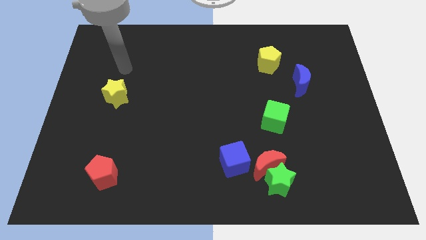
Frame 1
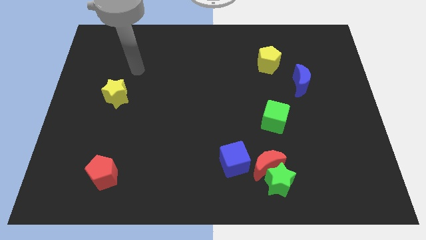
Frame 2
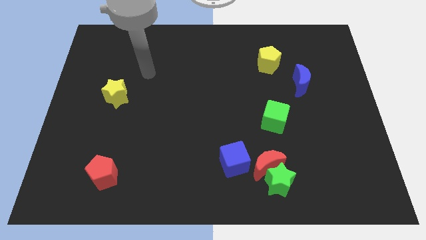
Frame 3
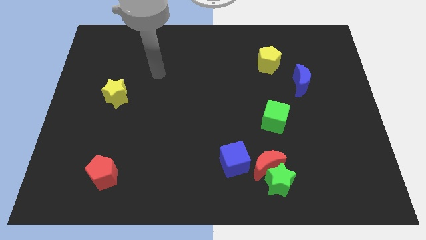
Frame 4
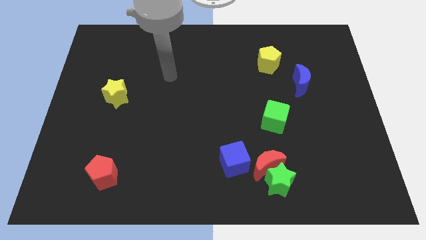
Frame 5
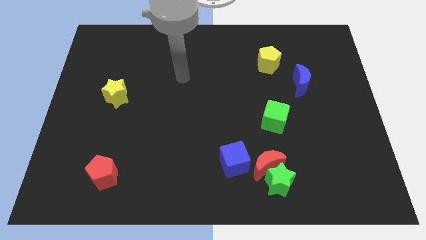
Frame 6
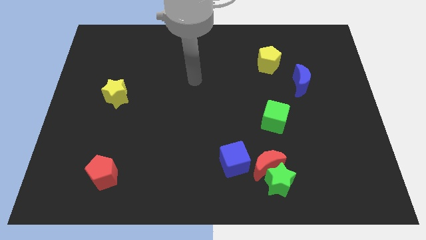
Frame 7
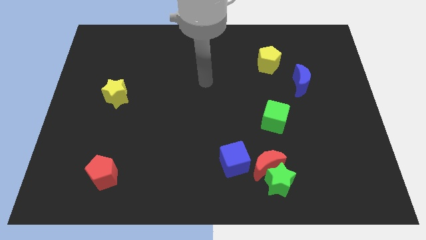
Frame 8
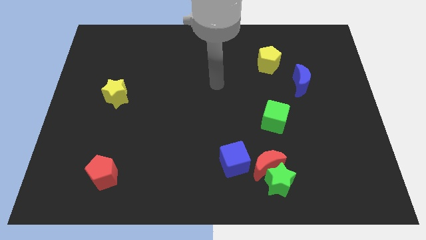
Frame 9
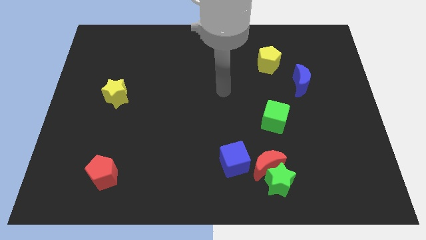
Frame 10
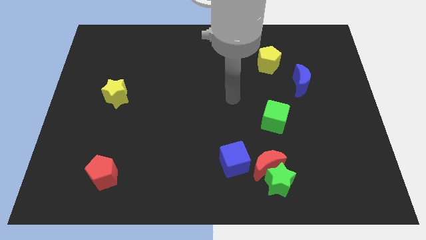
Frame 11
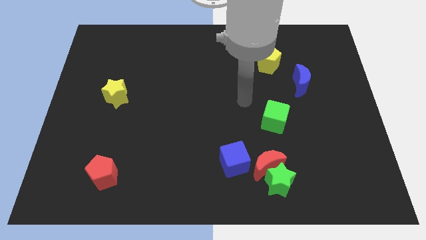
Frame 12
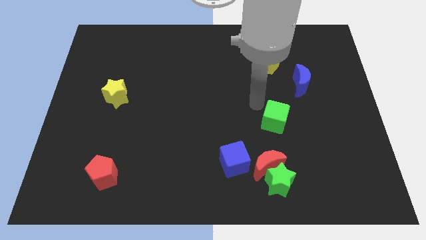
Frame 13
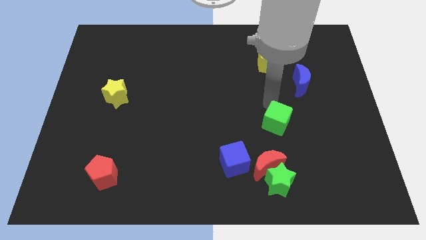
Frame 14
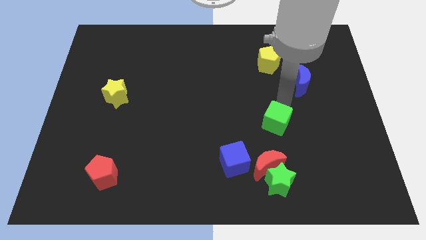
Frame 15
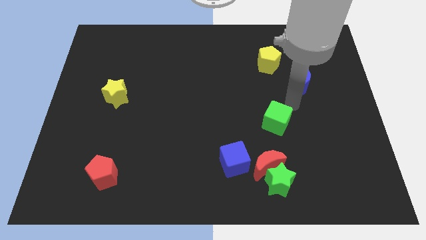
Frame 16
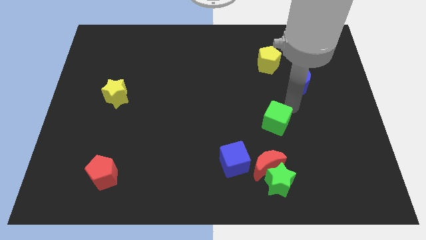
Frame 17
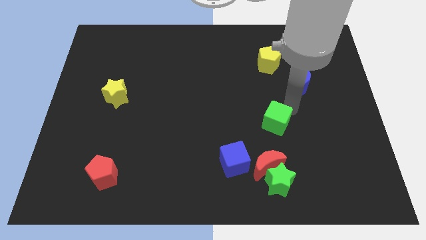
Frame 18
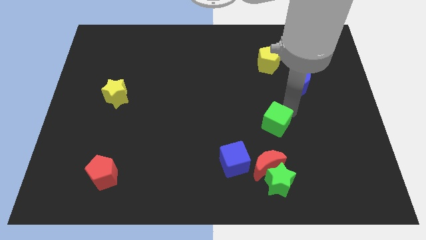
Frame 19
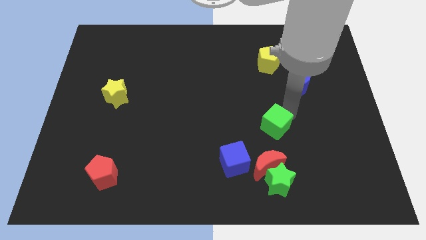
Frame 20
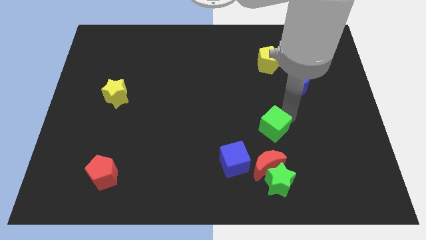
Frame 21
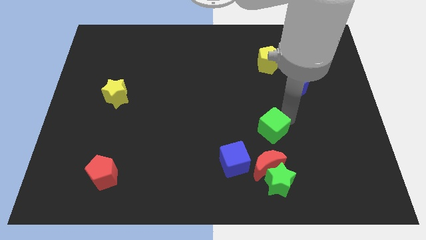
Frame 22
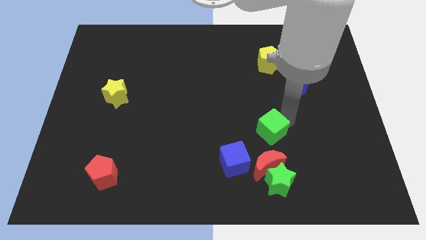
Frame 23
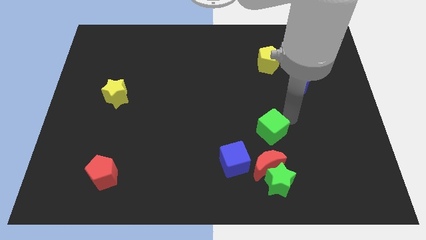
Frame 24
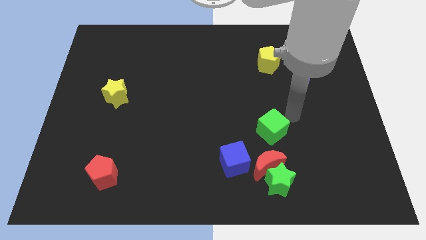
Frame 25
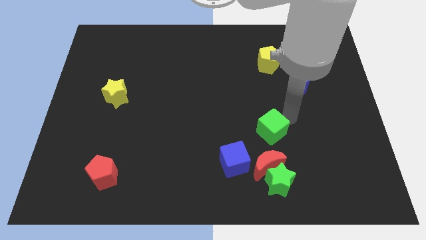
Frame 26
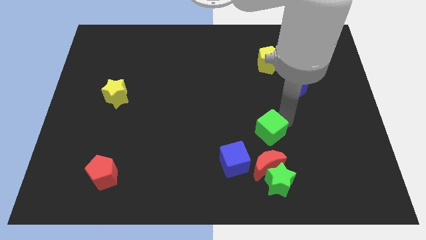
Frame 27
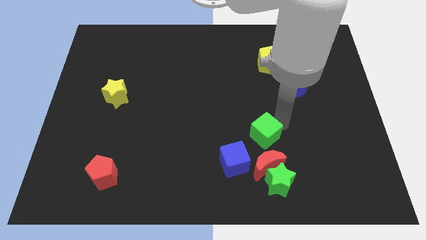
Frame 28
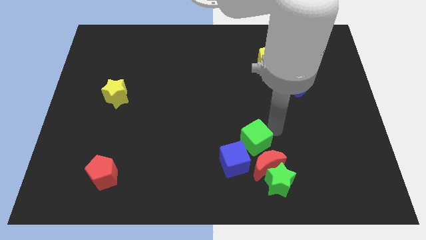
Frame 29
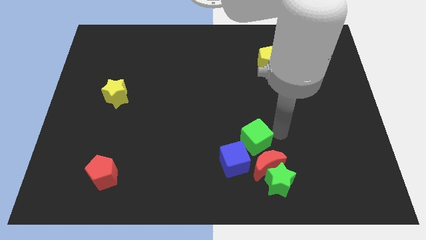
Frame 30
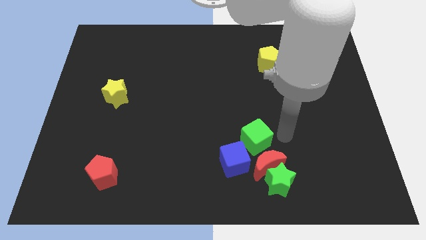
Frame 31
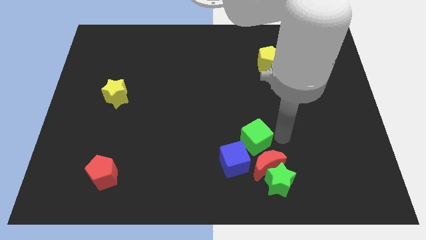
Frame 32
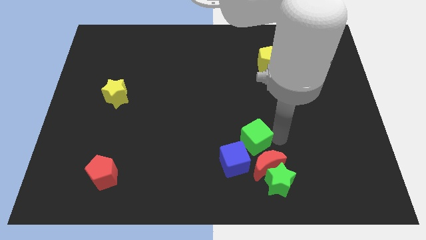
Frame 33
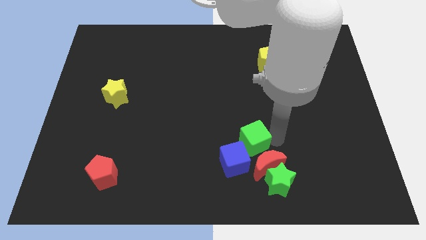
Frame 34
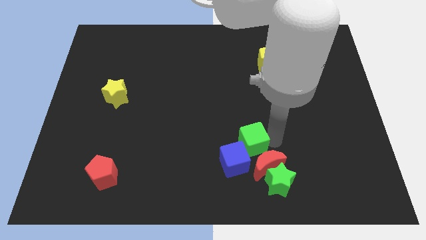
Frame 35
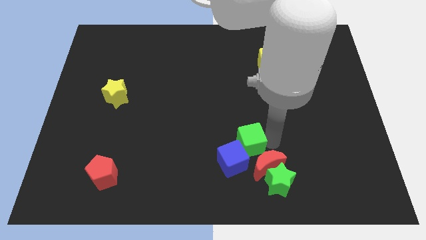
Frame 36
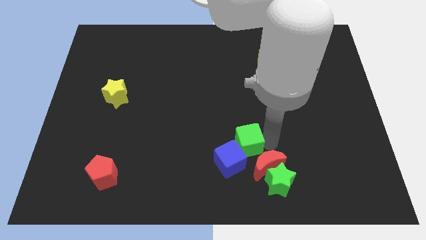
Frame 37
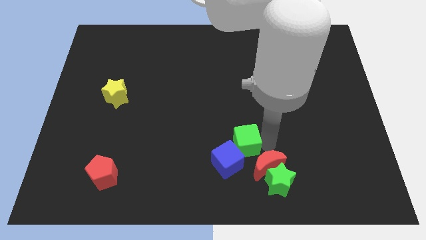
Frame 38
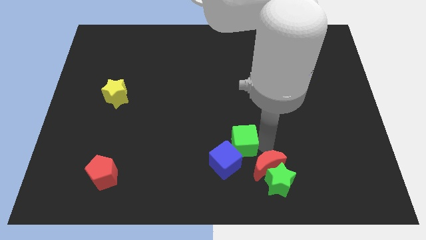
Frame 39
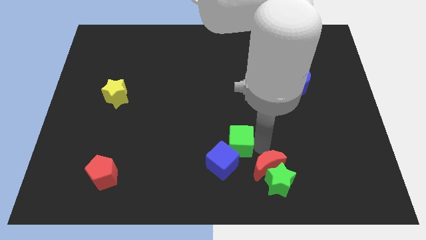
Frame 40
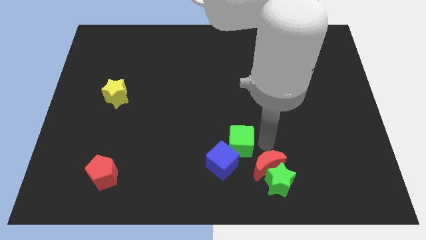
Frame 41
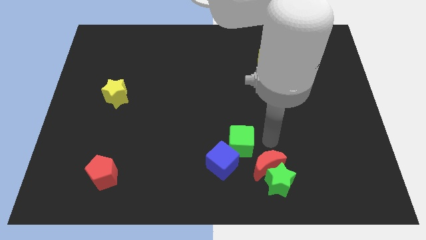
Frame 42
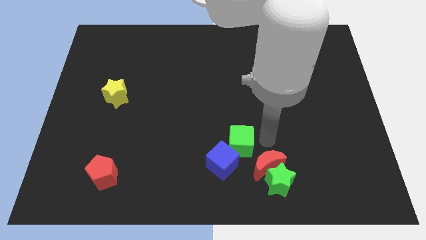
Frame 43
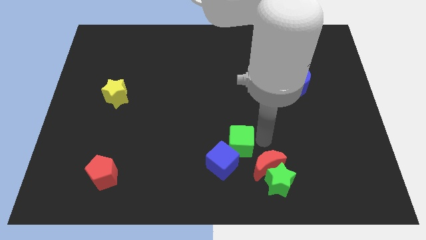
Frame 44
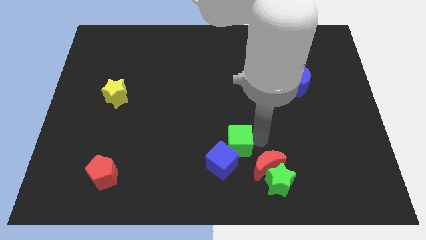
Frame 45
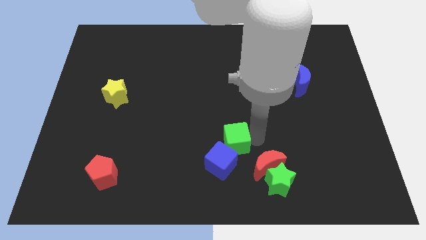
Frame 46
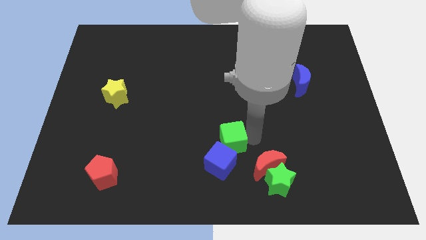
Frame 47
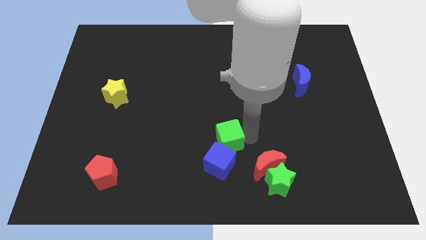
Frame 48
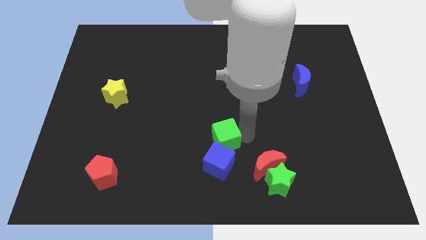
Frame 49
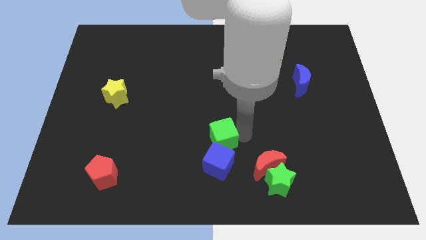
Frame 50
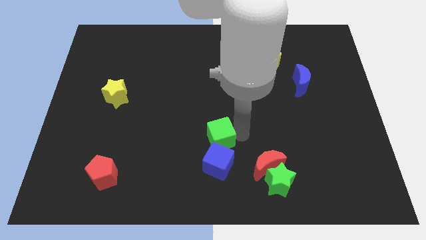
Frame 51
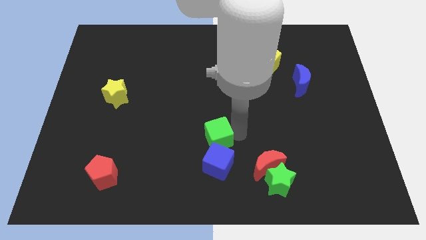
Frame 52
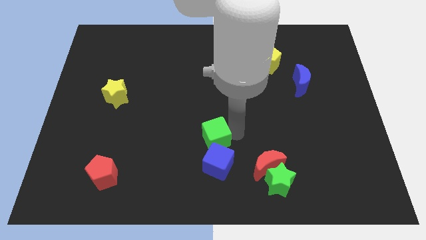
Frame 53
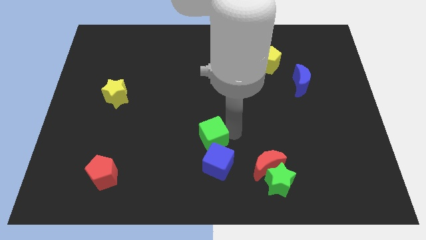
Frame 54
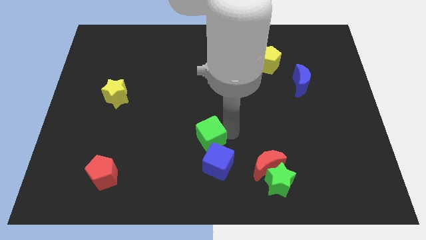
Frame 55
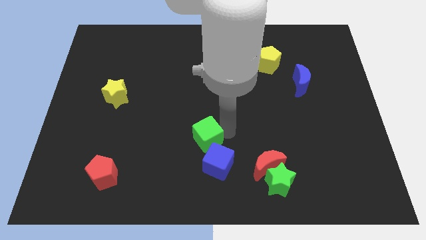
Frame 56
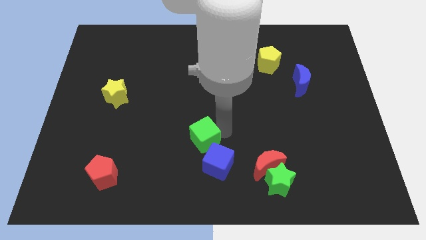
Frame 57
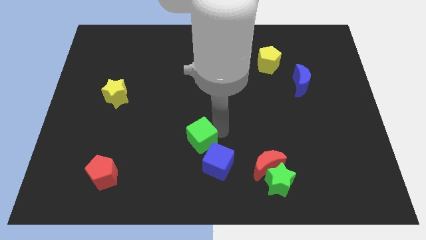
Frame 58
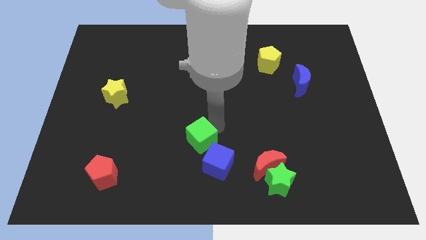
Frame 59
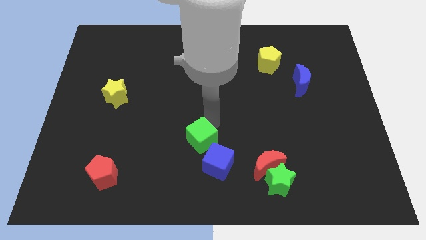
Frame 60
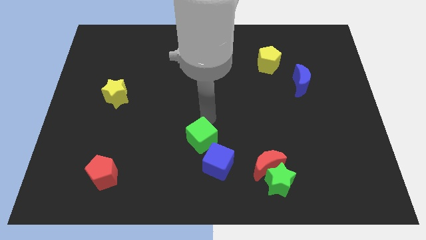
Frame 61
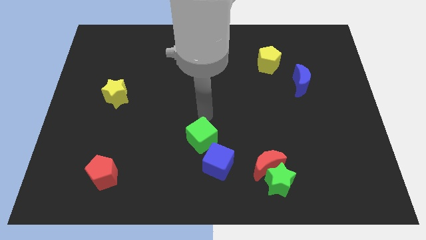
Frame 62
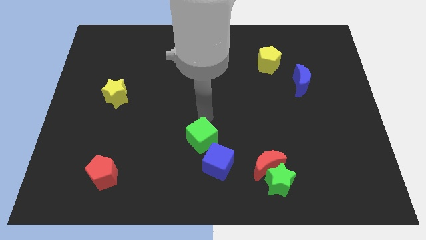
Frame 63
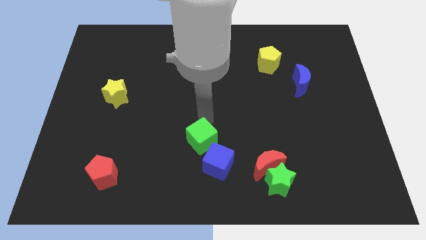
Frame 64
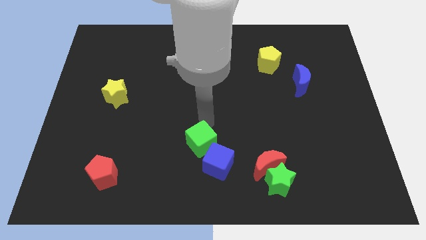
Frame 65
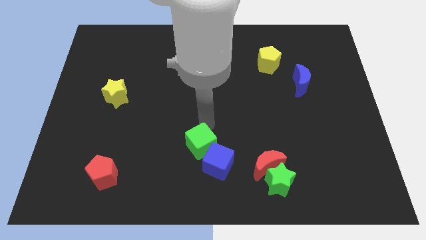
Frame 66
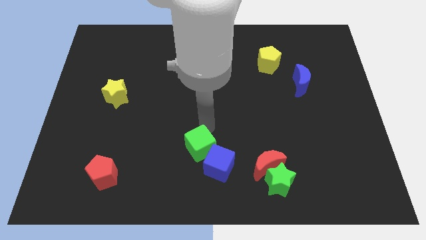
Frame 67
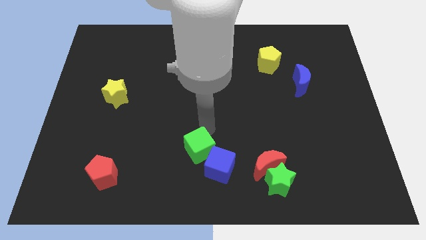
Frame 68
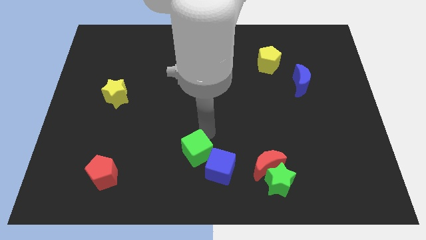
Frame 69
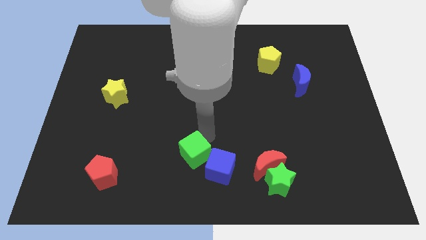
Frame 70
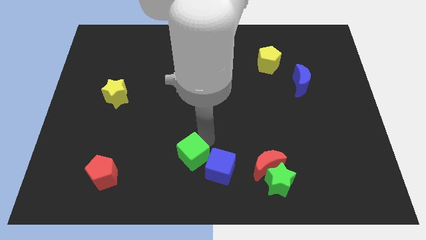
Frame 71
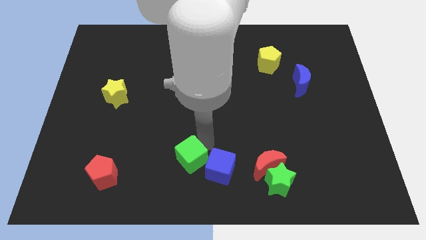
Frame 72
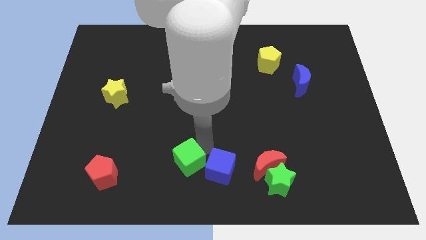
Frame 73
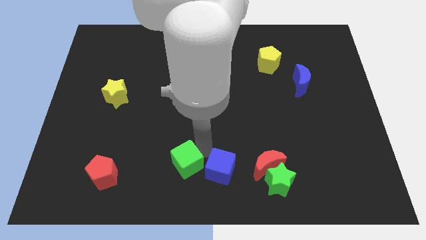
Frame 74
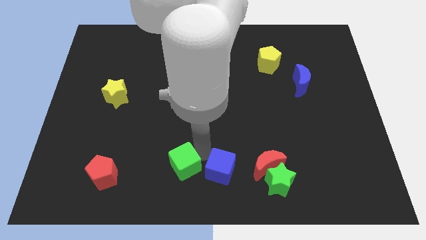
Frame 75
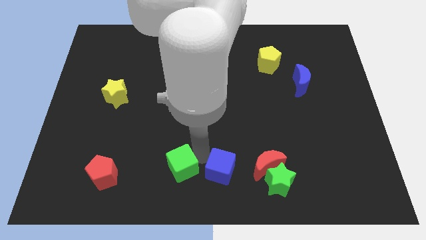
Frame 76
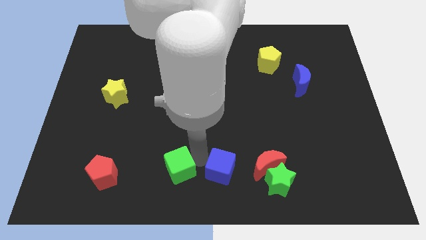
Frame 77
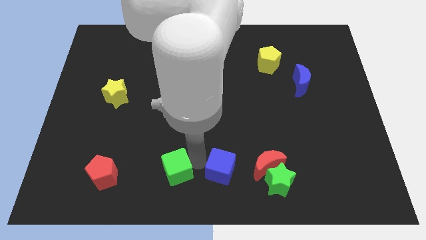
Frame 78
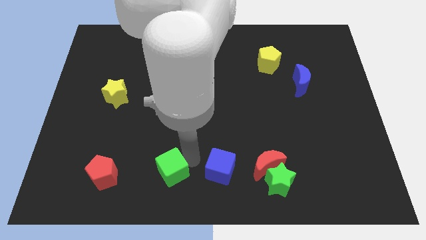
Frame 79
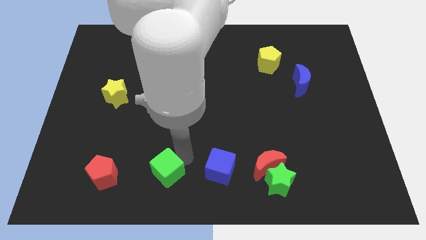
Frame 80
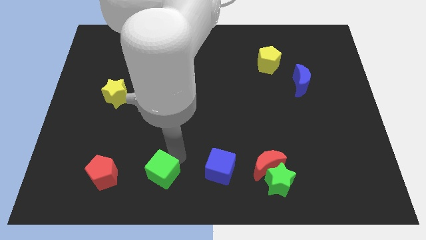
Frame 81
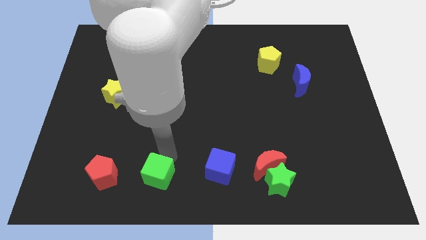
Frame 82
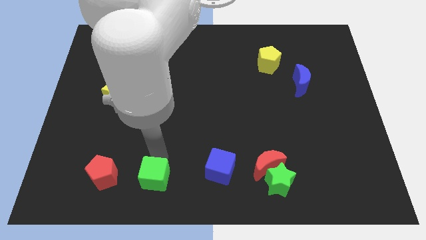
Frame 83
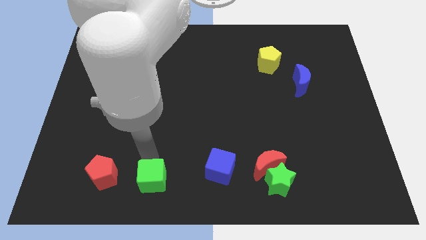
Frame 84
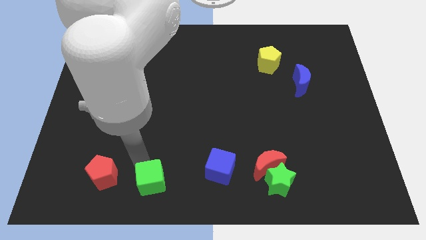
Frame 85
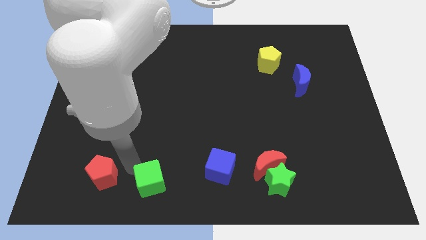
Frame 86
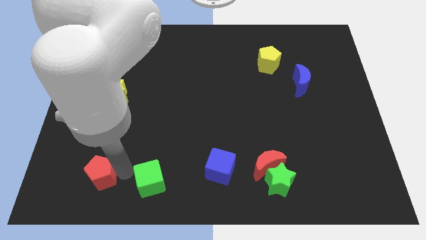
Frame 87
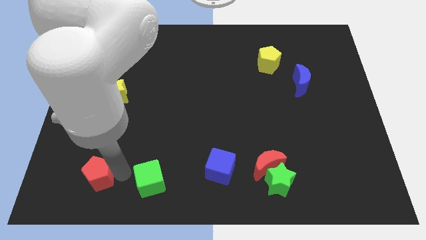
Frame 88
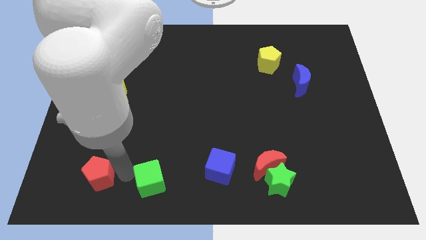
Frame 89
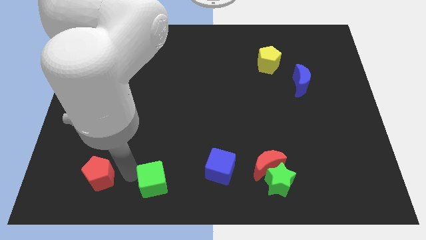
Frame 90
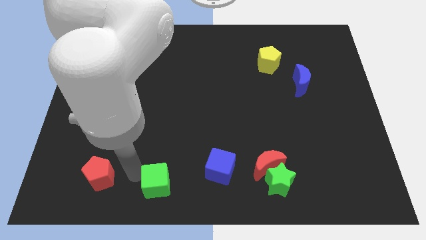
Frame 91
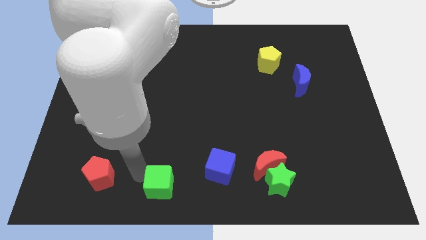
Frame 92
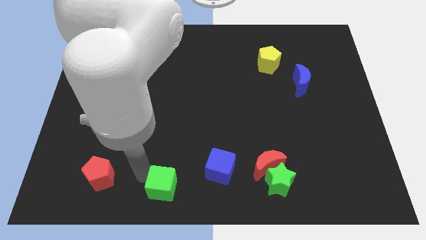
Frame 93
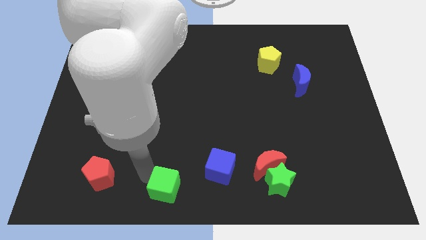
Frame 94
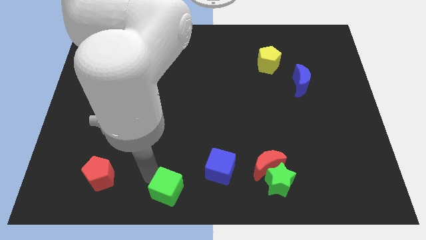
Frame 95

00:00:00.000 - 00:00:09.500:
slide the green cube to the bottom left of the blue cube
